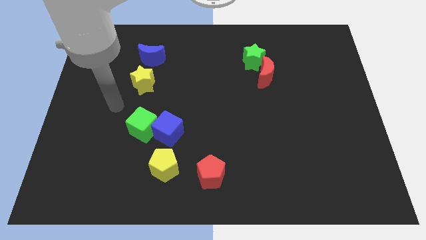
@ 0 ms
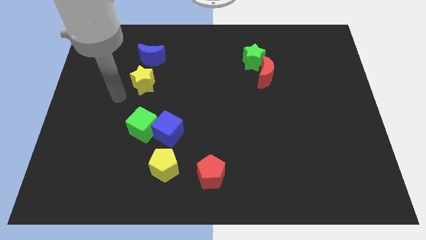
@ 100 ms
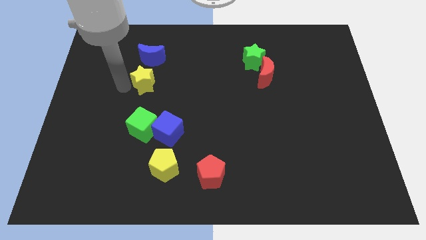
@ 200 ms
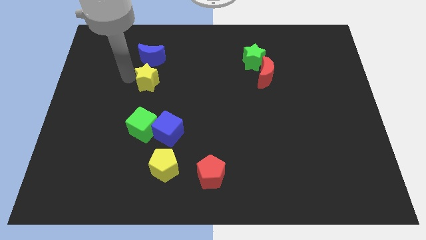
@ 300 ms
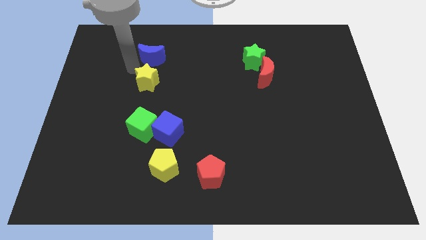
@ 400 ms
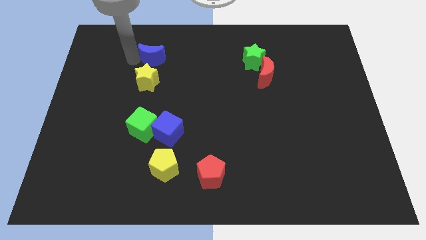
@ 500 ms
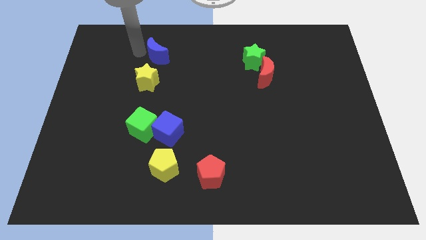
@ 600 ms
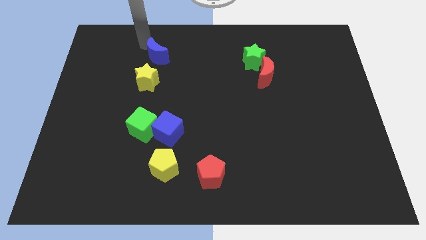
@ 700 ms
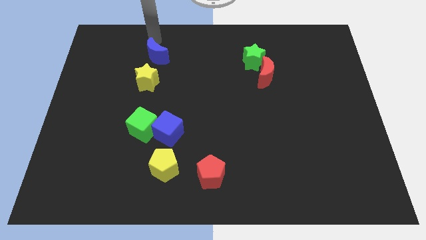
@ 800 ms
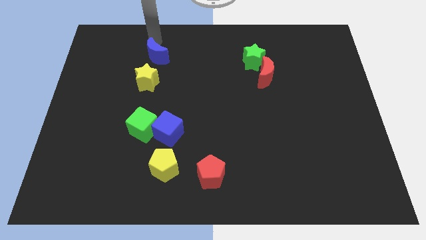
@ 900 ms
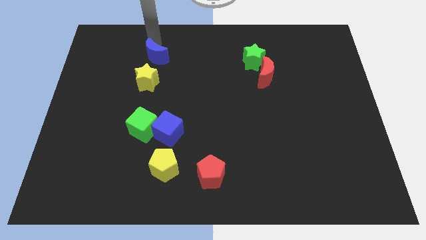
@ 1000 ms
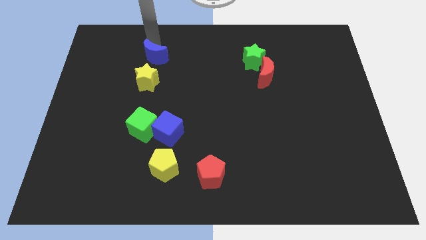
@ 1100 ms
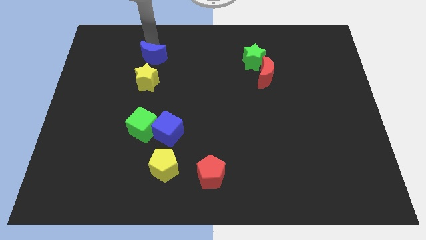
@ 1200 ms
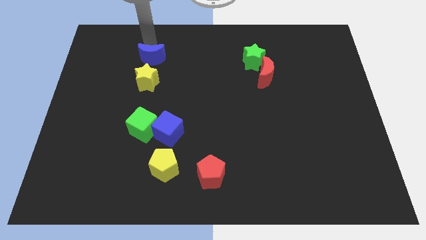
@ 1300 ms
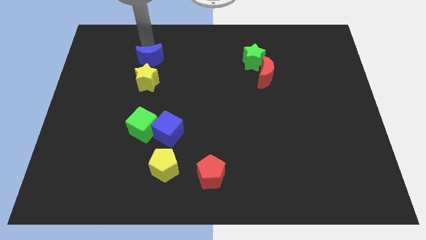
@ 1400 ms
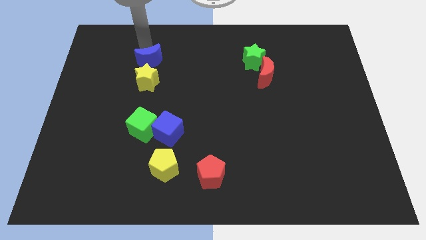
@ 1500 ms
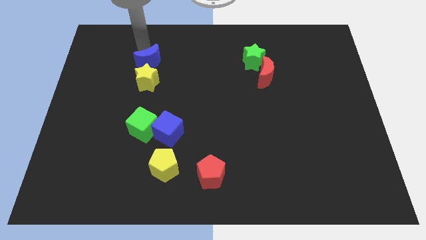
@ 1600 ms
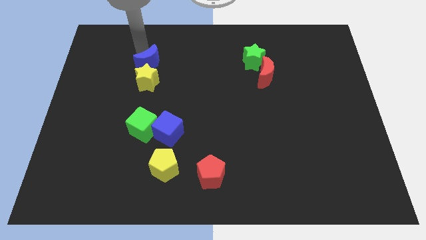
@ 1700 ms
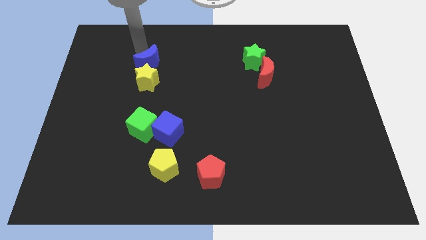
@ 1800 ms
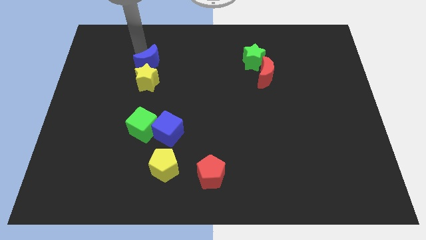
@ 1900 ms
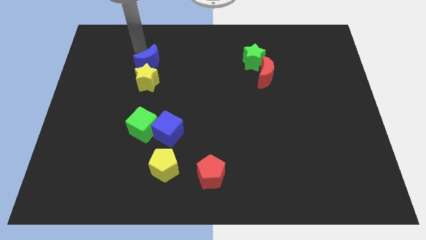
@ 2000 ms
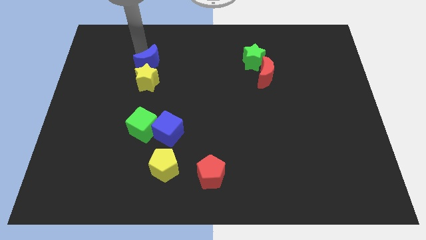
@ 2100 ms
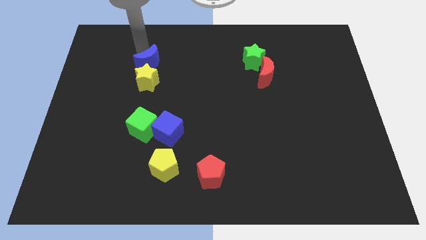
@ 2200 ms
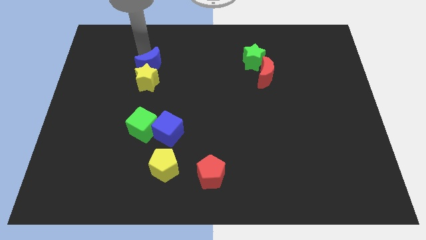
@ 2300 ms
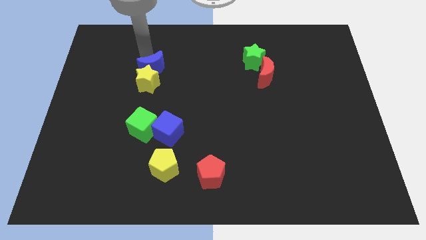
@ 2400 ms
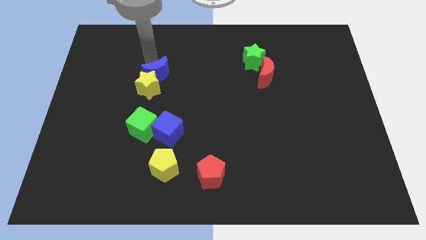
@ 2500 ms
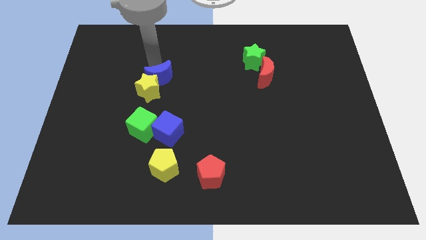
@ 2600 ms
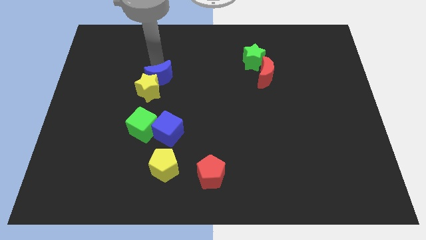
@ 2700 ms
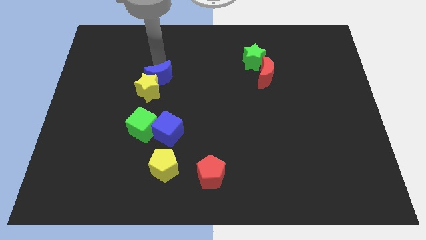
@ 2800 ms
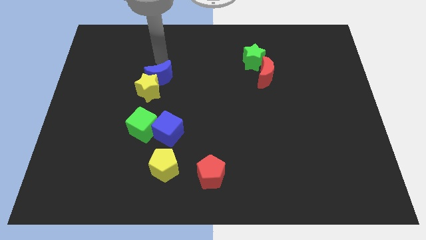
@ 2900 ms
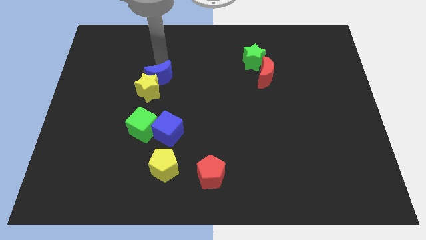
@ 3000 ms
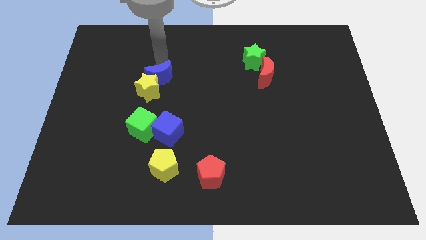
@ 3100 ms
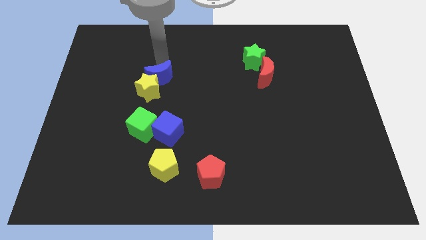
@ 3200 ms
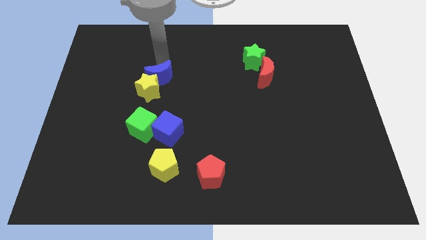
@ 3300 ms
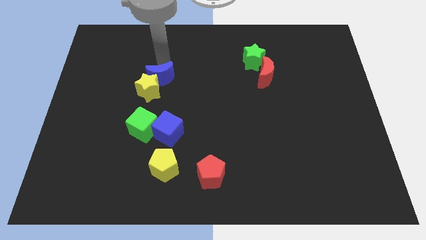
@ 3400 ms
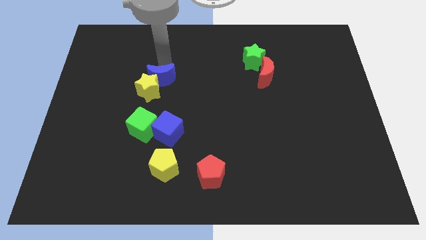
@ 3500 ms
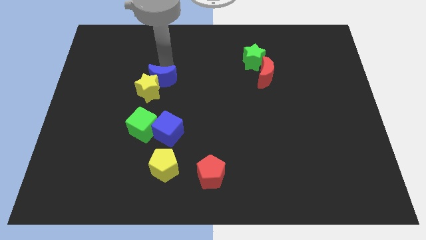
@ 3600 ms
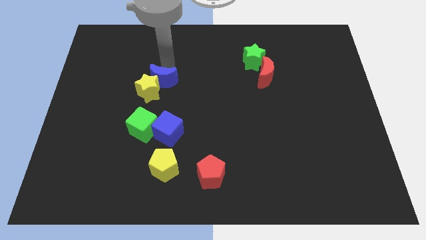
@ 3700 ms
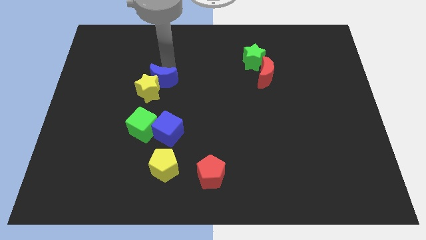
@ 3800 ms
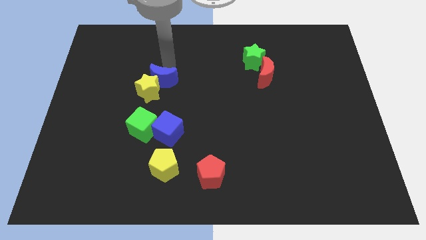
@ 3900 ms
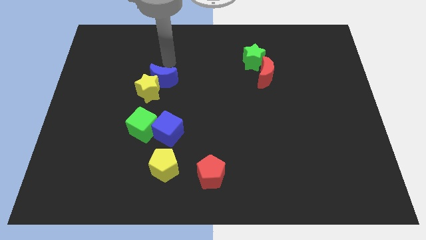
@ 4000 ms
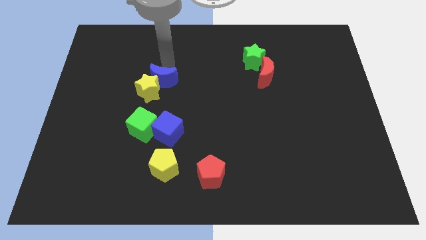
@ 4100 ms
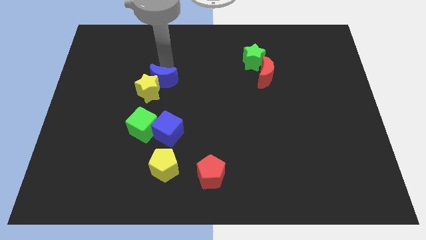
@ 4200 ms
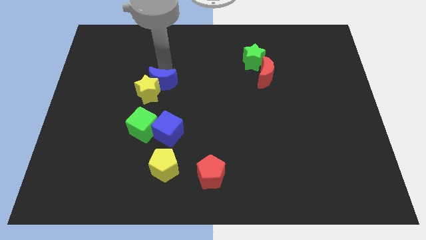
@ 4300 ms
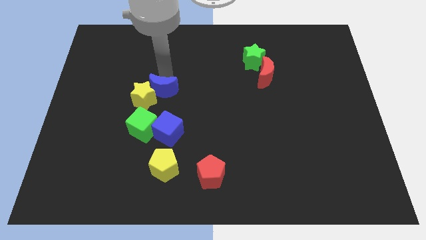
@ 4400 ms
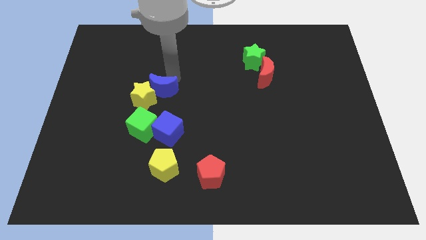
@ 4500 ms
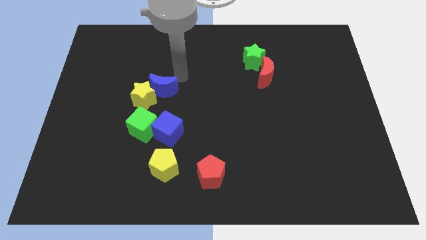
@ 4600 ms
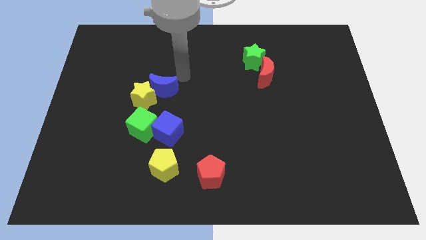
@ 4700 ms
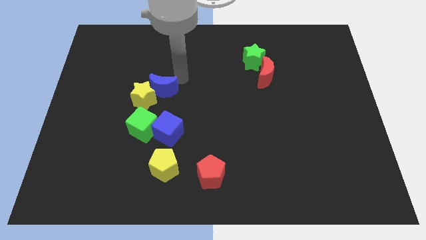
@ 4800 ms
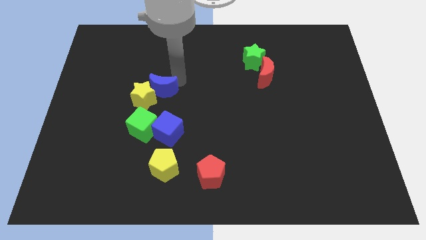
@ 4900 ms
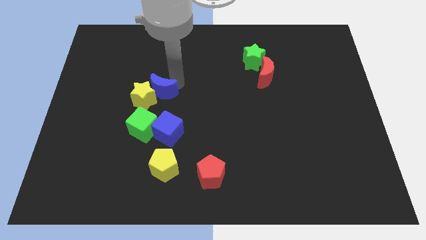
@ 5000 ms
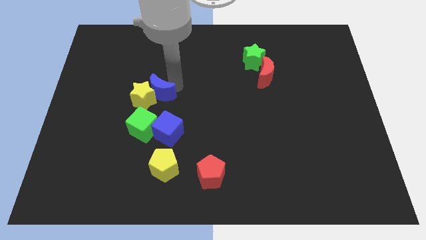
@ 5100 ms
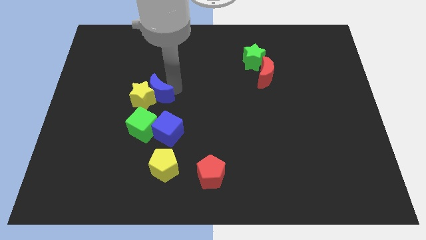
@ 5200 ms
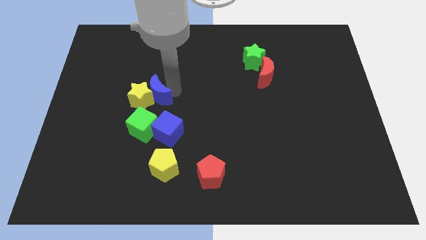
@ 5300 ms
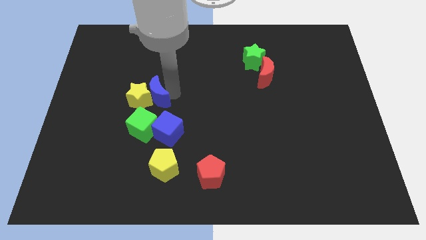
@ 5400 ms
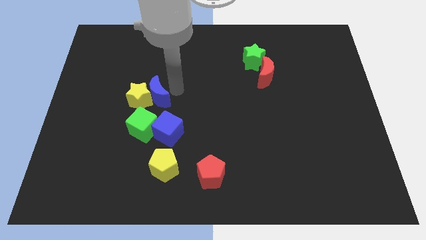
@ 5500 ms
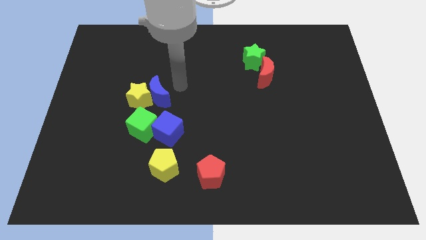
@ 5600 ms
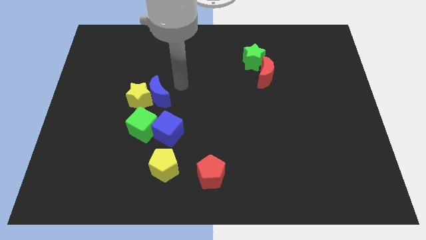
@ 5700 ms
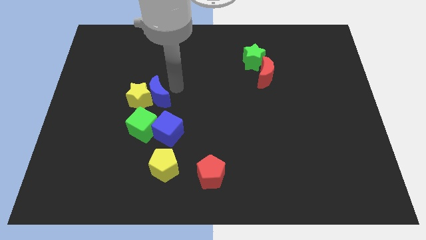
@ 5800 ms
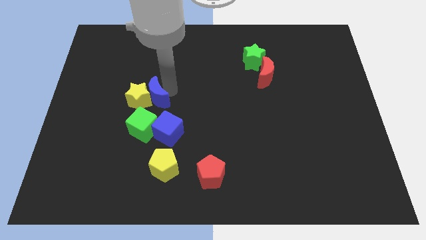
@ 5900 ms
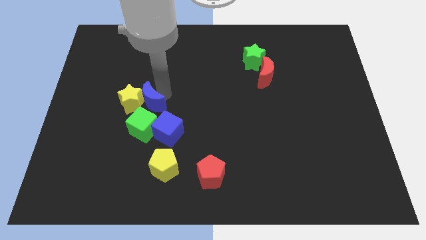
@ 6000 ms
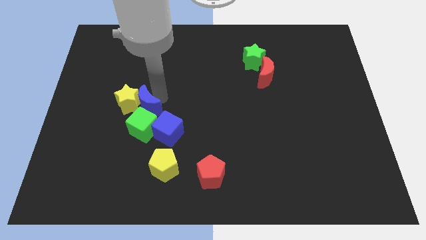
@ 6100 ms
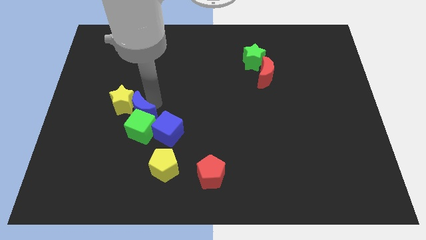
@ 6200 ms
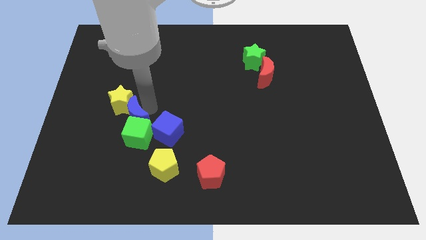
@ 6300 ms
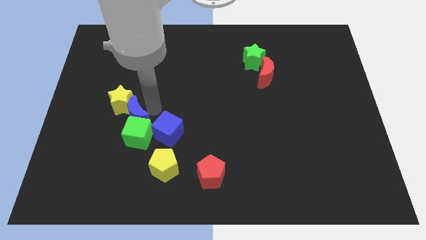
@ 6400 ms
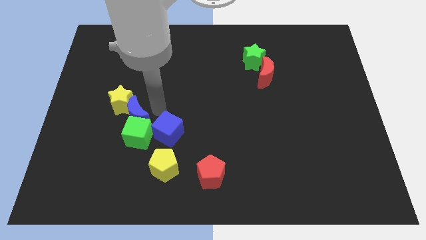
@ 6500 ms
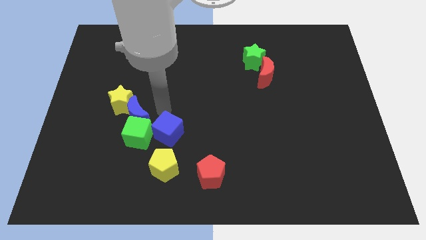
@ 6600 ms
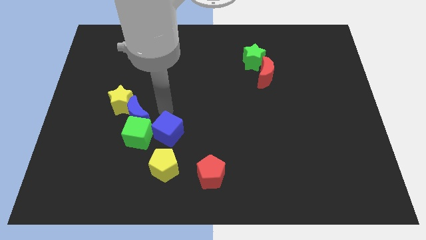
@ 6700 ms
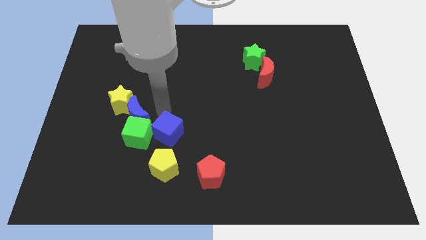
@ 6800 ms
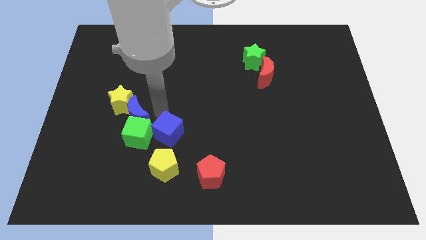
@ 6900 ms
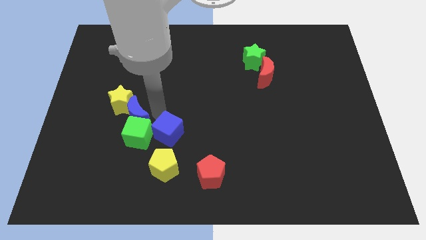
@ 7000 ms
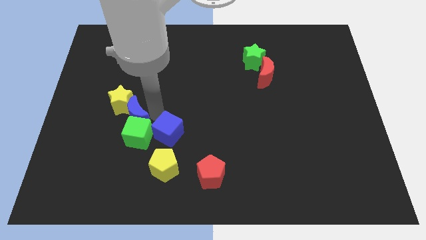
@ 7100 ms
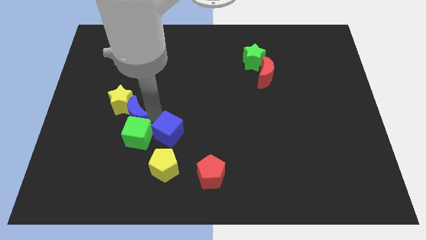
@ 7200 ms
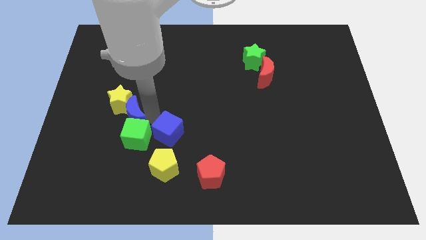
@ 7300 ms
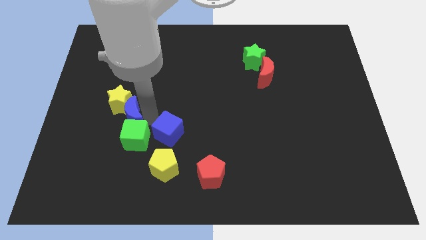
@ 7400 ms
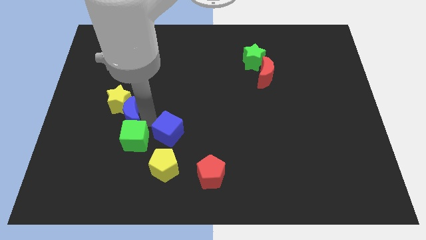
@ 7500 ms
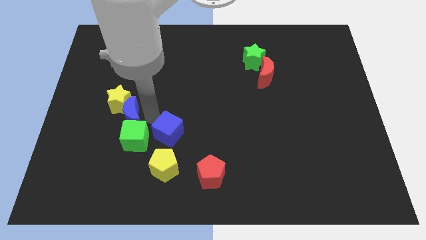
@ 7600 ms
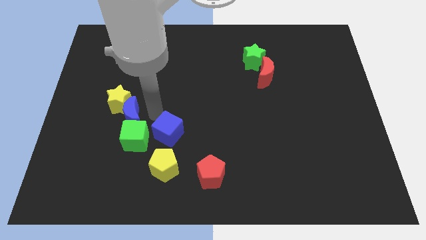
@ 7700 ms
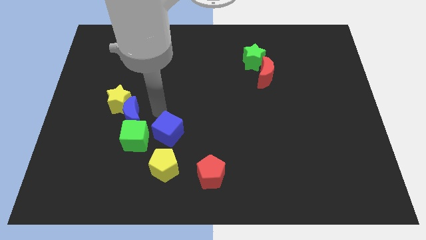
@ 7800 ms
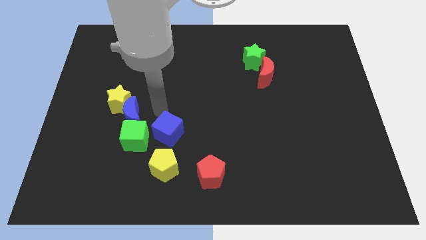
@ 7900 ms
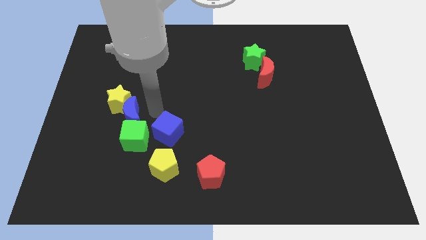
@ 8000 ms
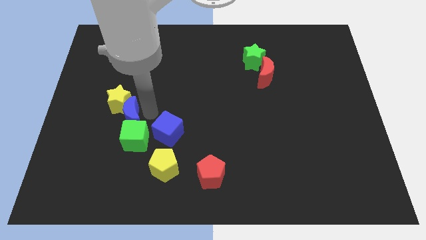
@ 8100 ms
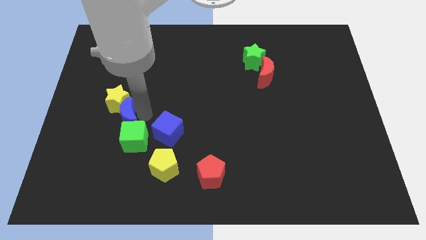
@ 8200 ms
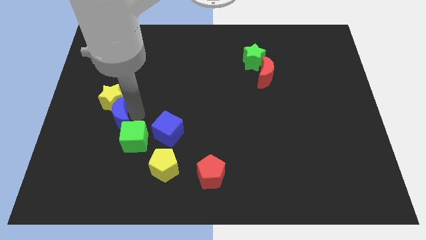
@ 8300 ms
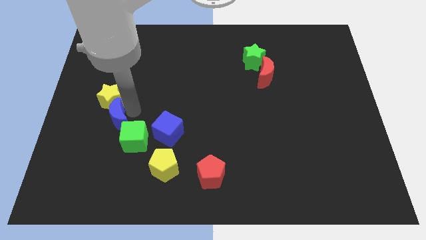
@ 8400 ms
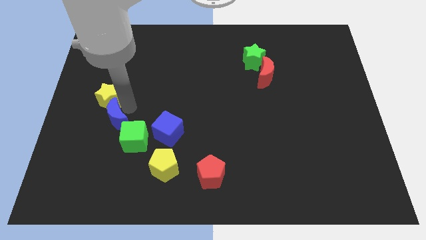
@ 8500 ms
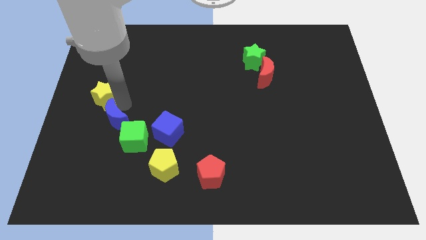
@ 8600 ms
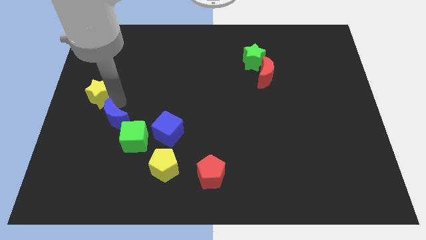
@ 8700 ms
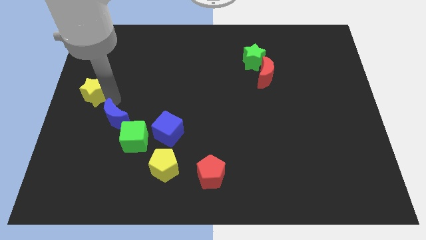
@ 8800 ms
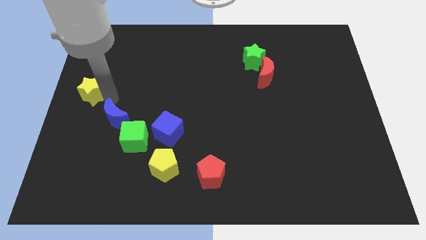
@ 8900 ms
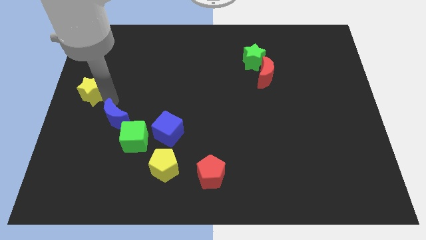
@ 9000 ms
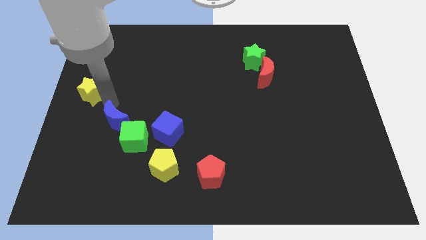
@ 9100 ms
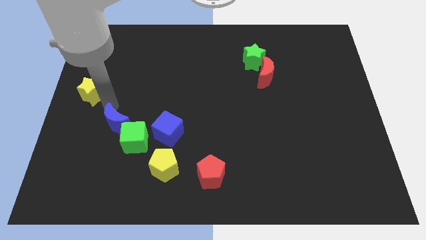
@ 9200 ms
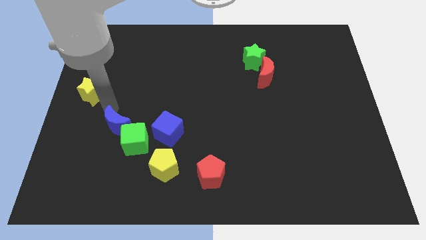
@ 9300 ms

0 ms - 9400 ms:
push the blue moon down
